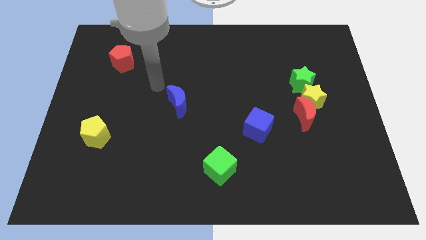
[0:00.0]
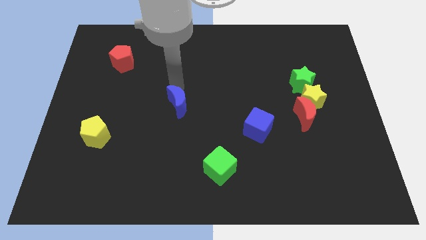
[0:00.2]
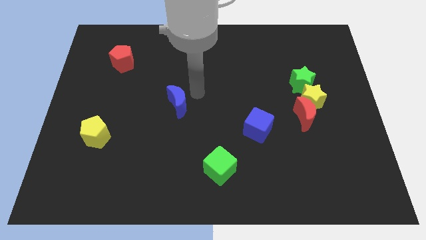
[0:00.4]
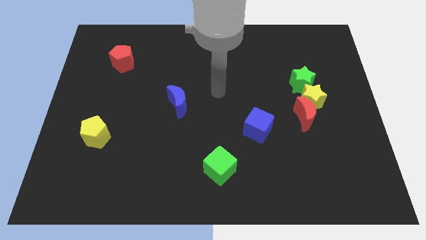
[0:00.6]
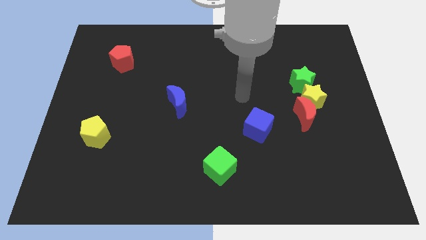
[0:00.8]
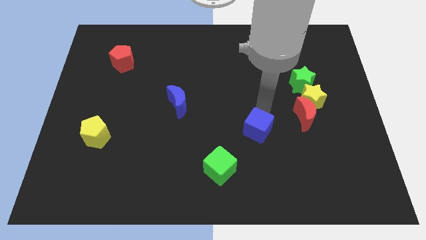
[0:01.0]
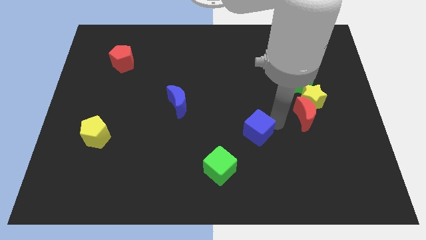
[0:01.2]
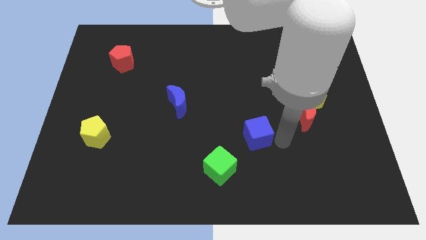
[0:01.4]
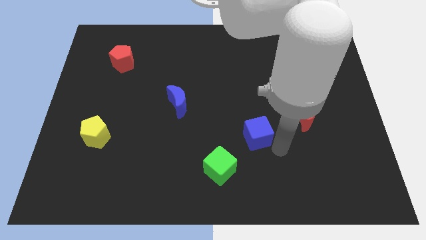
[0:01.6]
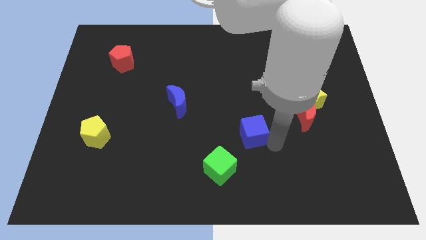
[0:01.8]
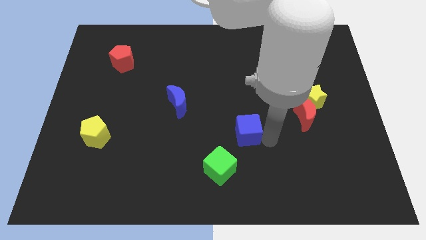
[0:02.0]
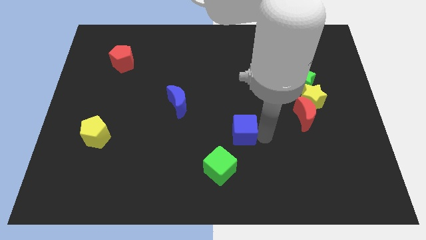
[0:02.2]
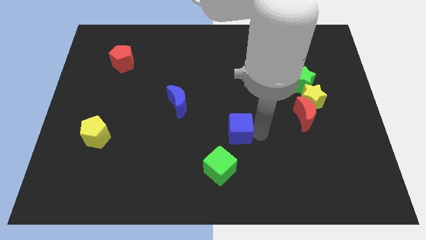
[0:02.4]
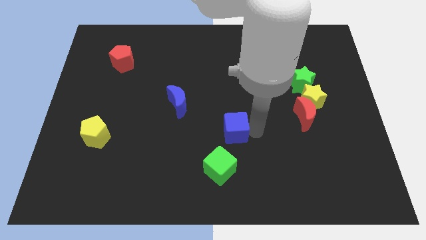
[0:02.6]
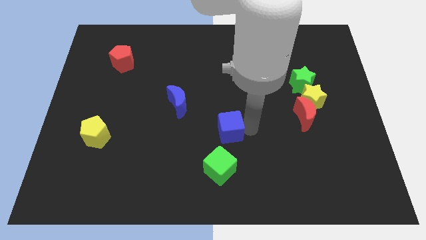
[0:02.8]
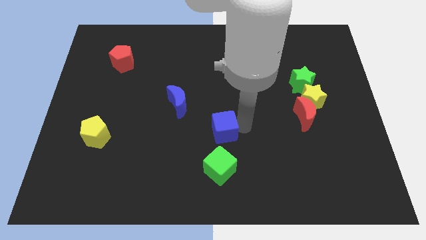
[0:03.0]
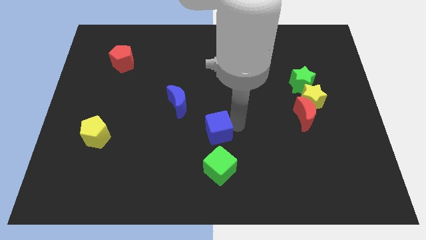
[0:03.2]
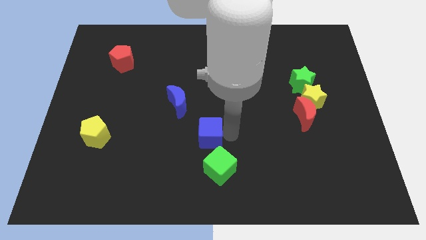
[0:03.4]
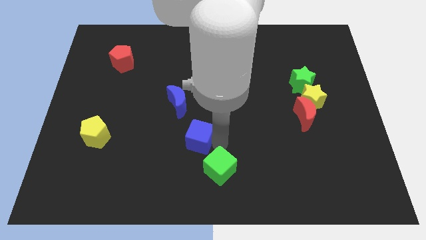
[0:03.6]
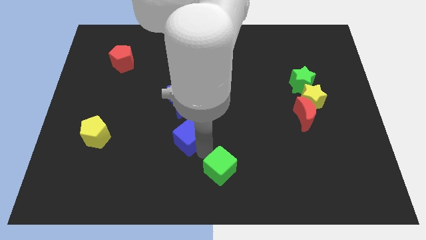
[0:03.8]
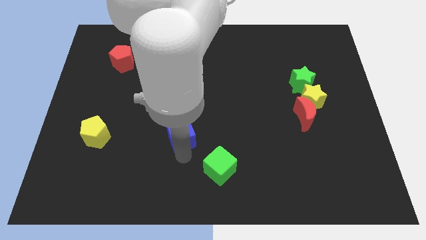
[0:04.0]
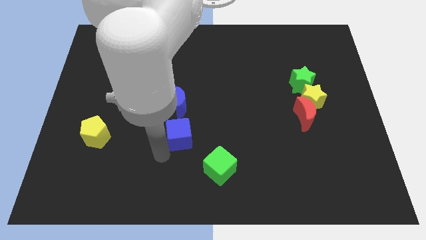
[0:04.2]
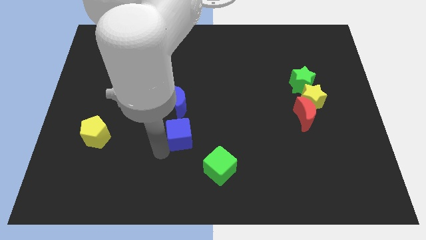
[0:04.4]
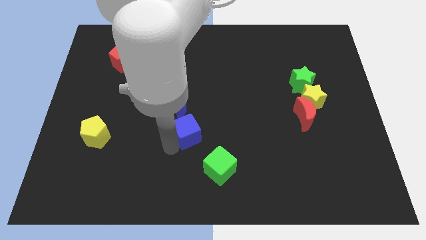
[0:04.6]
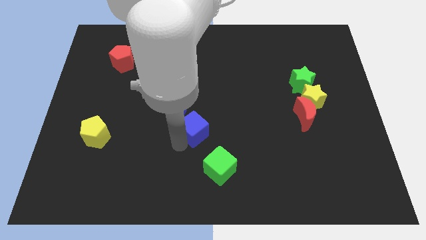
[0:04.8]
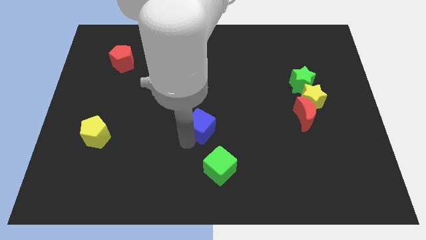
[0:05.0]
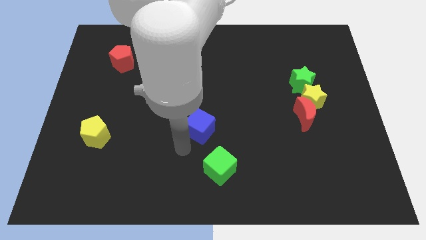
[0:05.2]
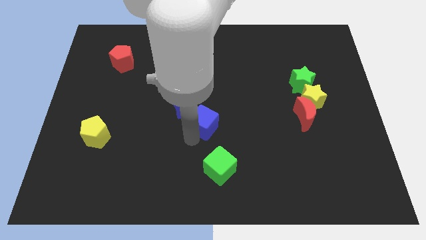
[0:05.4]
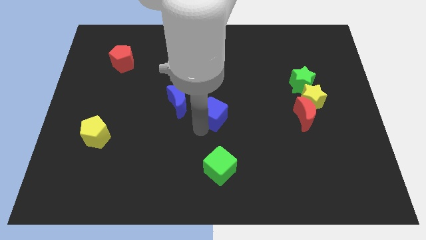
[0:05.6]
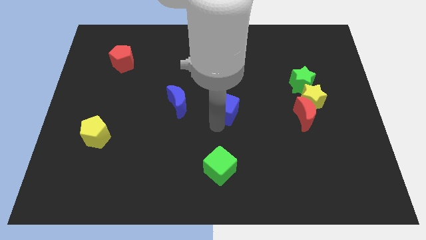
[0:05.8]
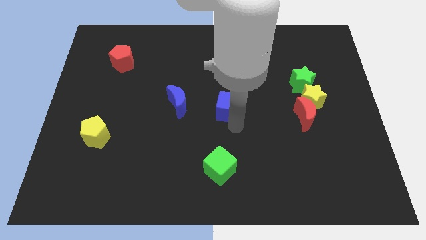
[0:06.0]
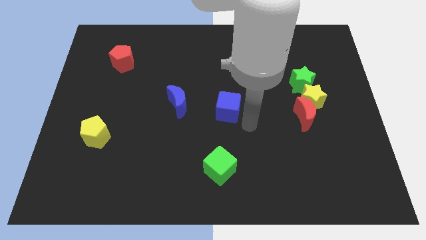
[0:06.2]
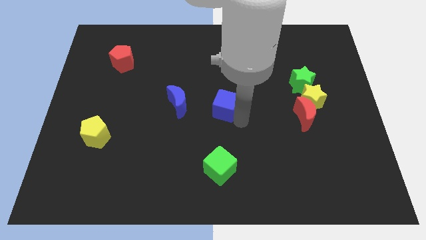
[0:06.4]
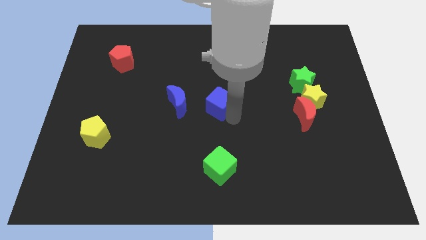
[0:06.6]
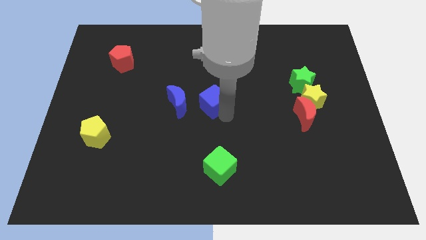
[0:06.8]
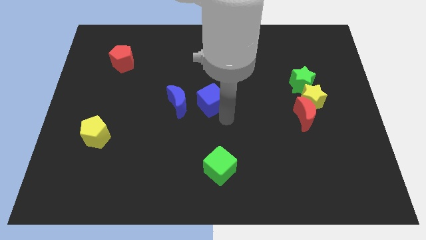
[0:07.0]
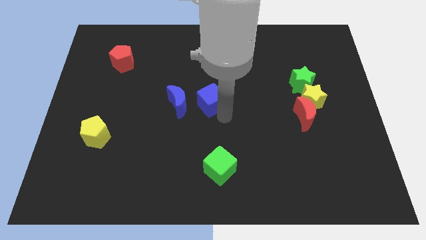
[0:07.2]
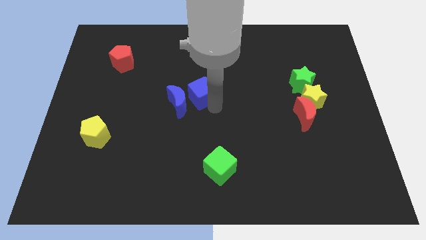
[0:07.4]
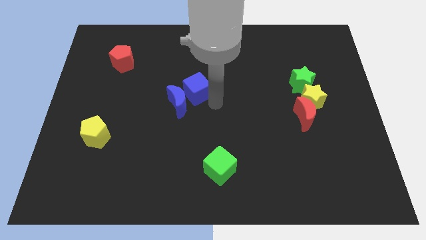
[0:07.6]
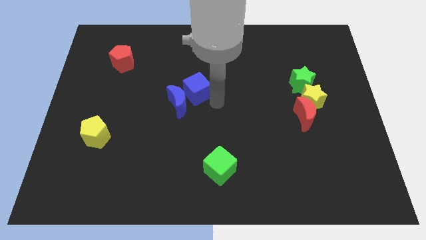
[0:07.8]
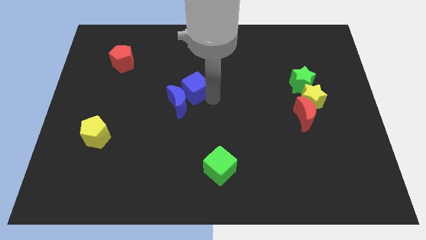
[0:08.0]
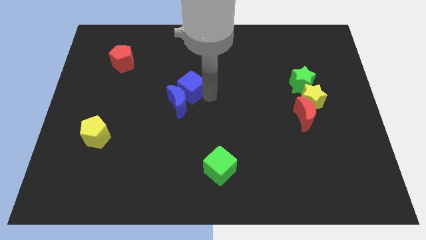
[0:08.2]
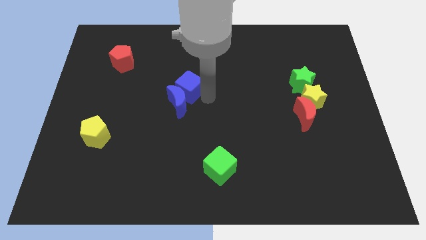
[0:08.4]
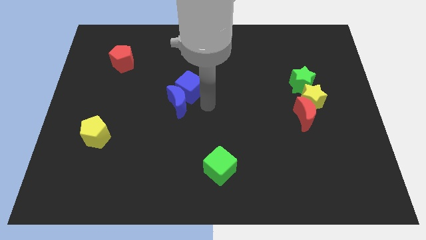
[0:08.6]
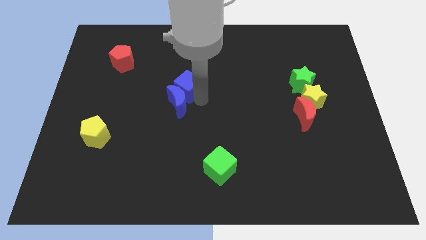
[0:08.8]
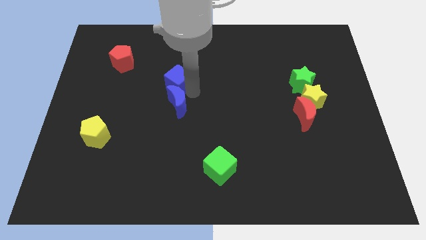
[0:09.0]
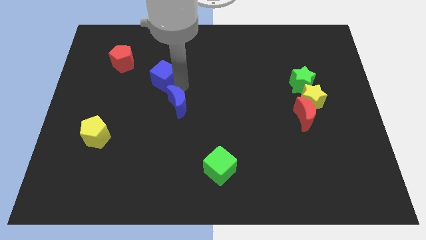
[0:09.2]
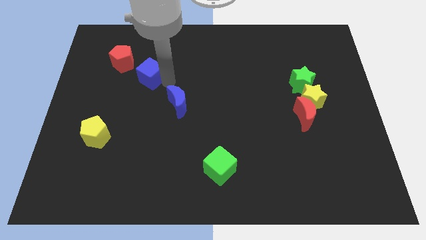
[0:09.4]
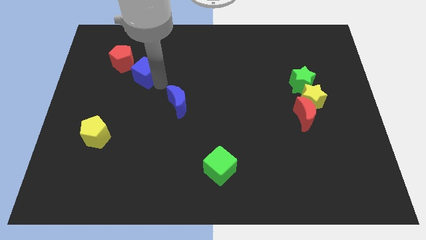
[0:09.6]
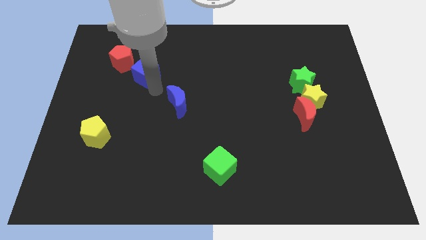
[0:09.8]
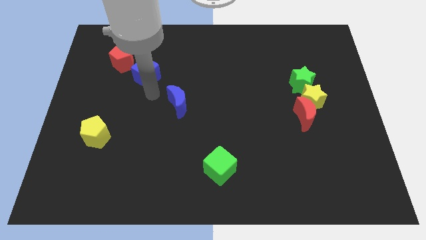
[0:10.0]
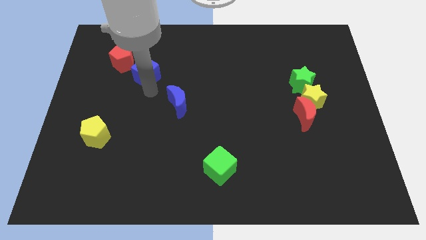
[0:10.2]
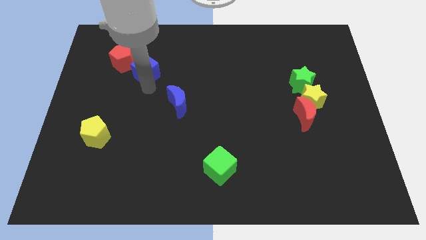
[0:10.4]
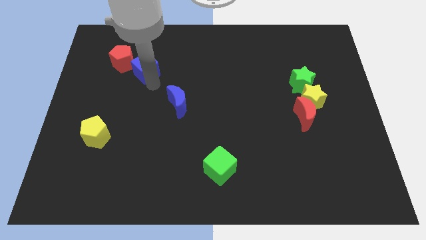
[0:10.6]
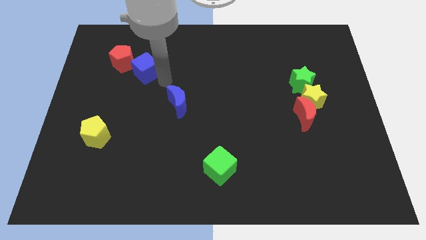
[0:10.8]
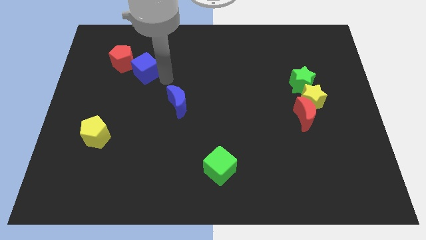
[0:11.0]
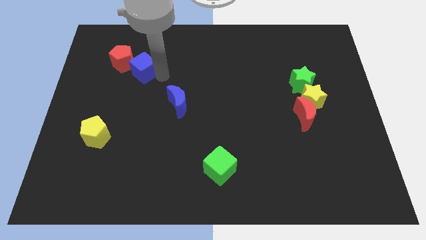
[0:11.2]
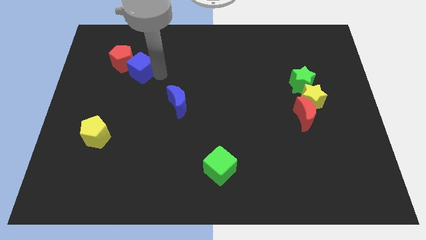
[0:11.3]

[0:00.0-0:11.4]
push the blue cube towards the red pentagon

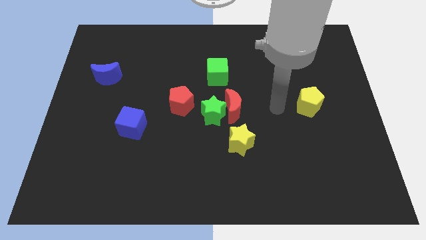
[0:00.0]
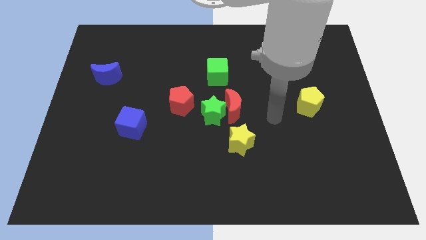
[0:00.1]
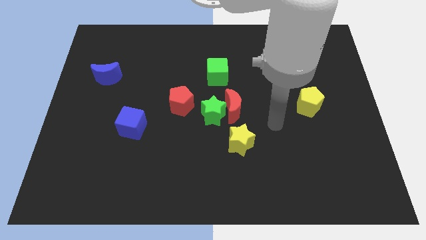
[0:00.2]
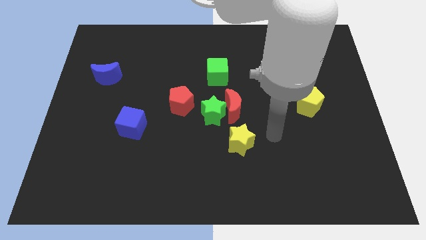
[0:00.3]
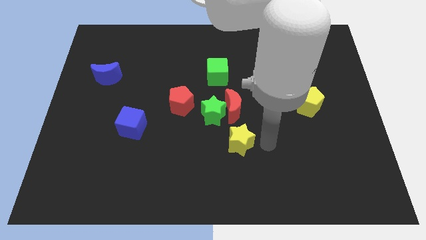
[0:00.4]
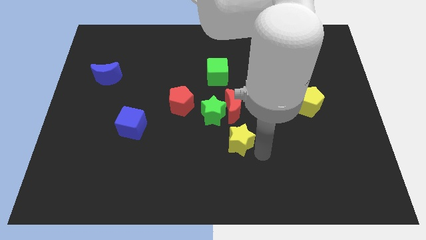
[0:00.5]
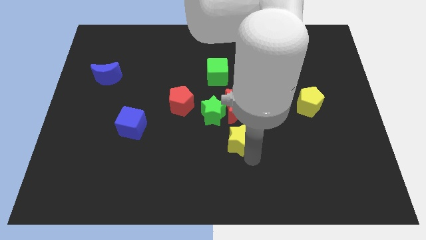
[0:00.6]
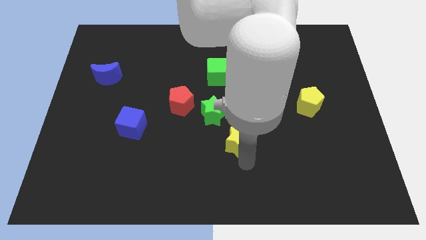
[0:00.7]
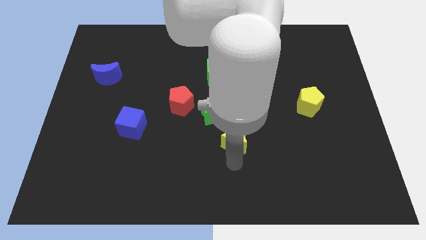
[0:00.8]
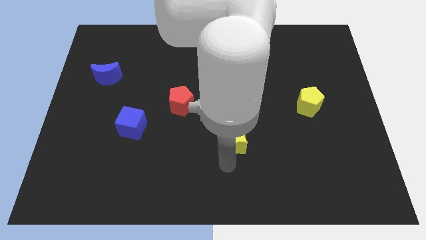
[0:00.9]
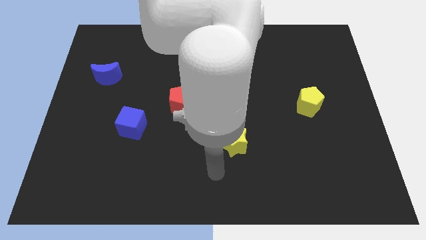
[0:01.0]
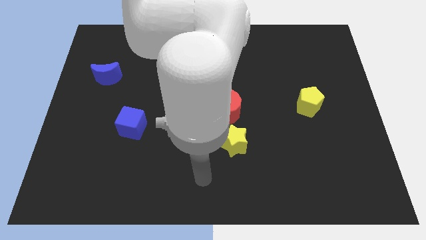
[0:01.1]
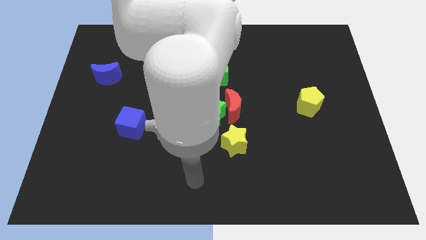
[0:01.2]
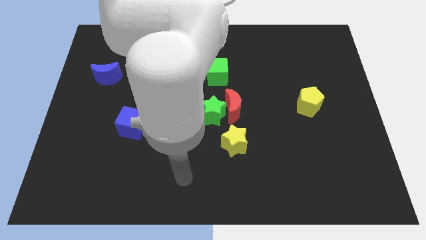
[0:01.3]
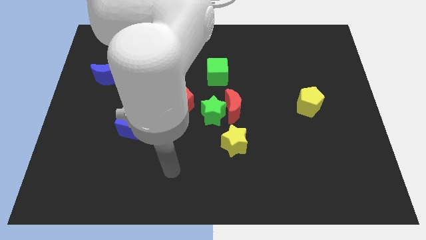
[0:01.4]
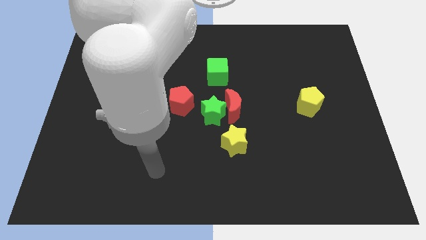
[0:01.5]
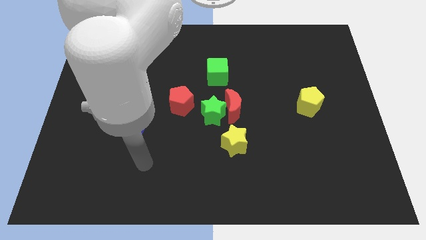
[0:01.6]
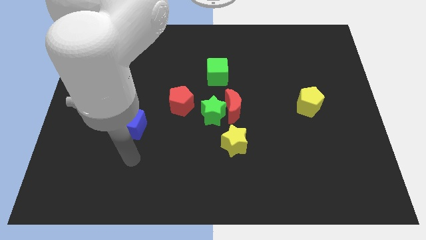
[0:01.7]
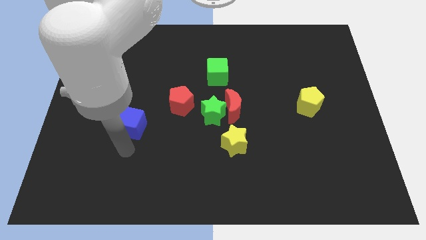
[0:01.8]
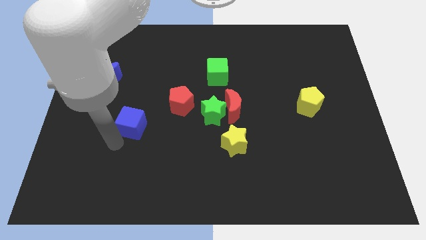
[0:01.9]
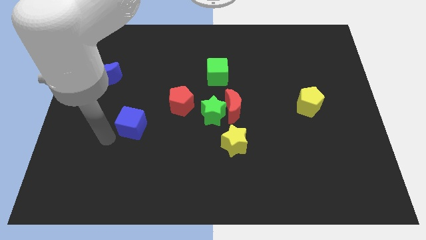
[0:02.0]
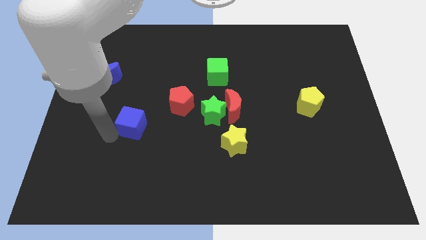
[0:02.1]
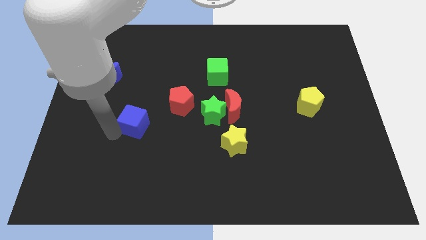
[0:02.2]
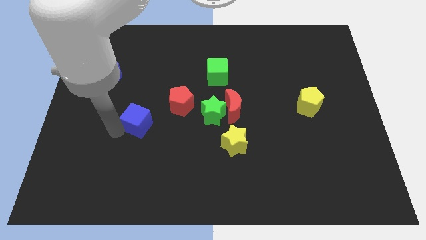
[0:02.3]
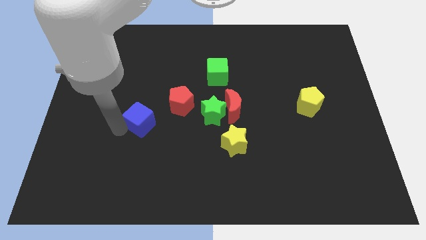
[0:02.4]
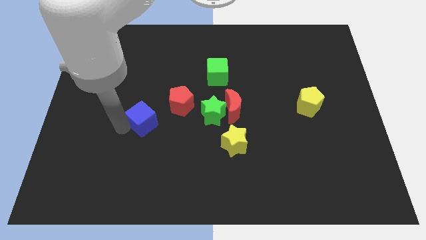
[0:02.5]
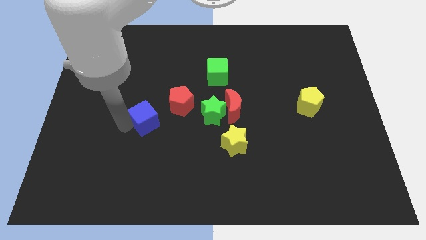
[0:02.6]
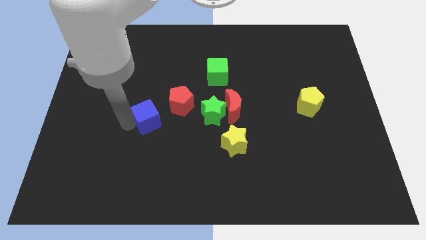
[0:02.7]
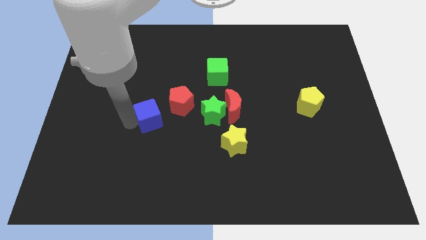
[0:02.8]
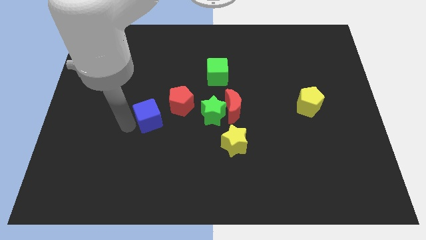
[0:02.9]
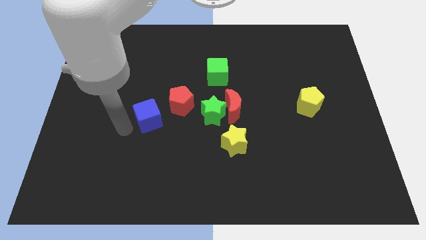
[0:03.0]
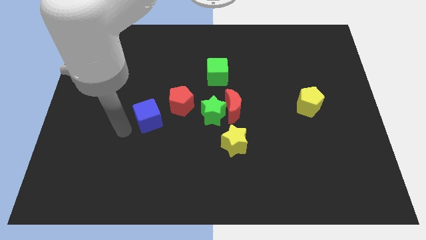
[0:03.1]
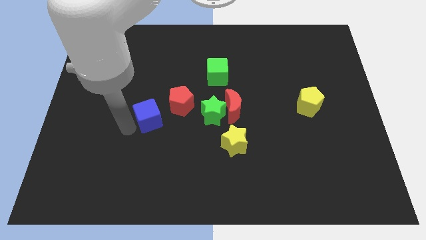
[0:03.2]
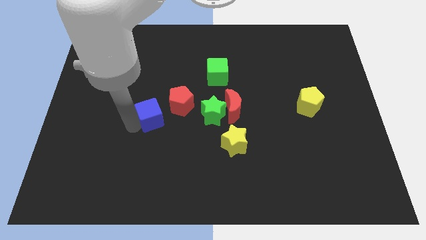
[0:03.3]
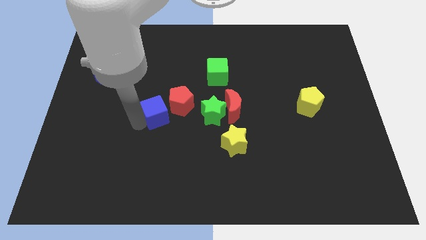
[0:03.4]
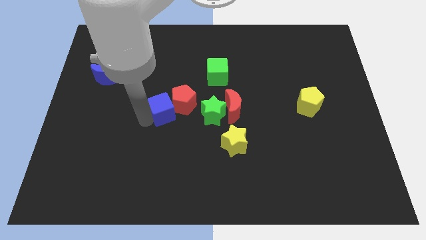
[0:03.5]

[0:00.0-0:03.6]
move the blue cube towards the red pentagon
